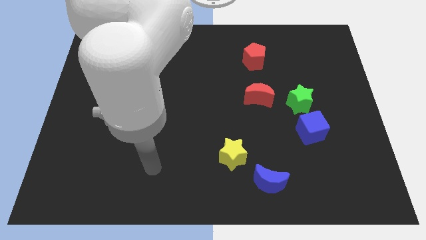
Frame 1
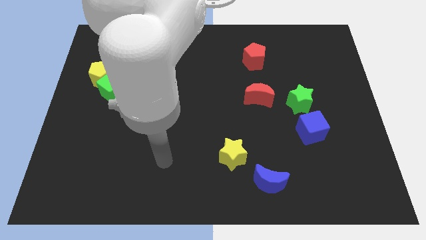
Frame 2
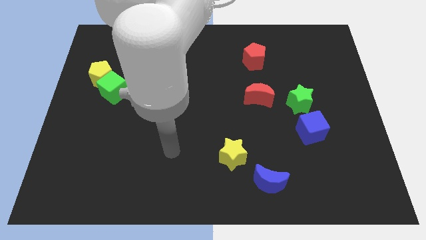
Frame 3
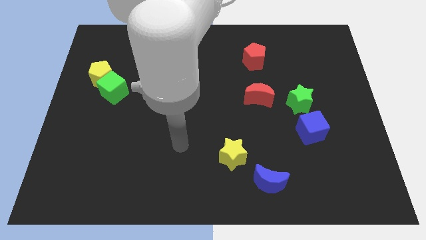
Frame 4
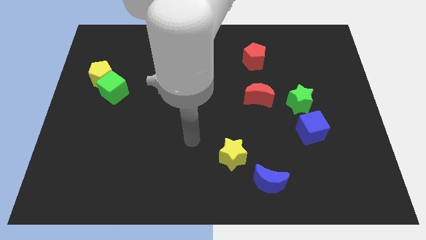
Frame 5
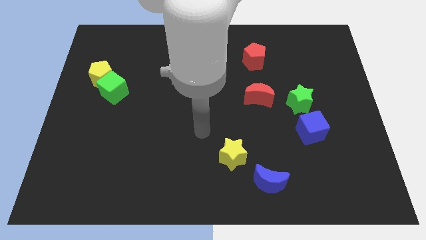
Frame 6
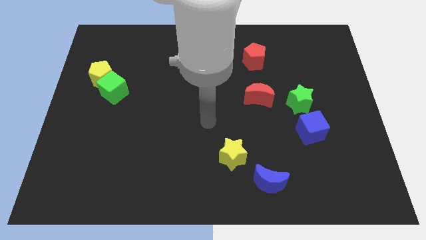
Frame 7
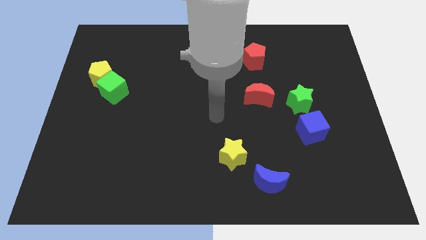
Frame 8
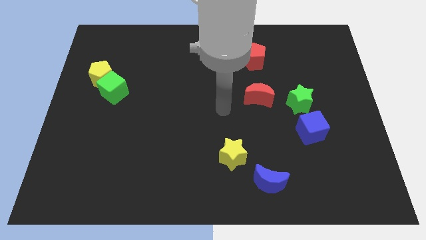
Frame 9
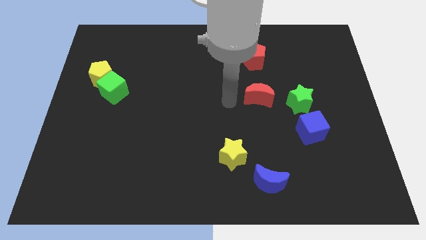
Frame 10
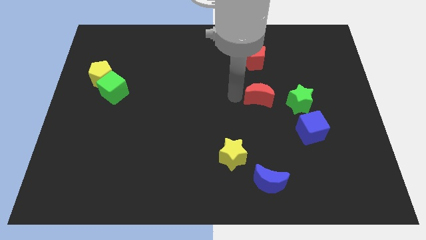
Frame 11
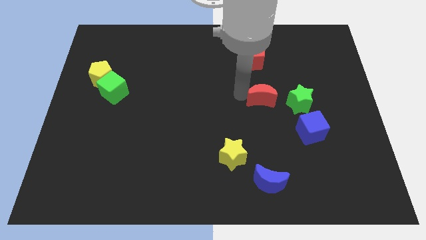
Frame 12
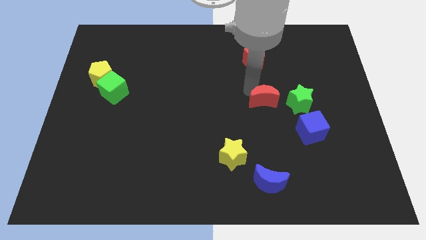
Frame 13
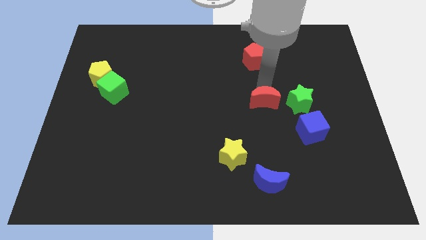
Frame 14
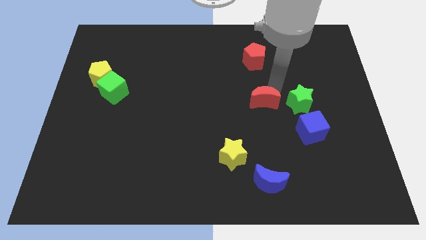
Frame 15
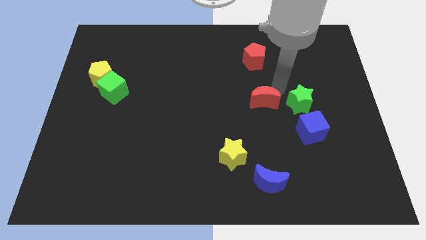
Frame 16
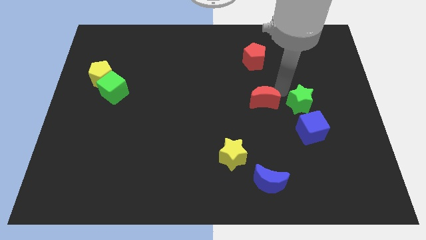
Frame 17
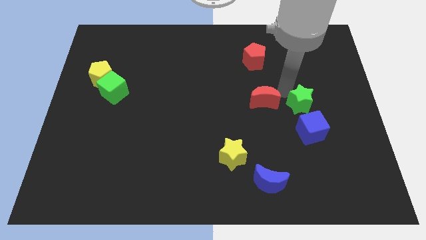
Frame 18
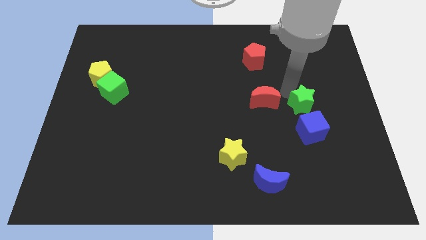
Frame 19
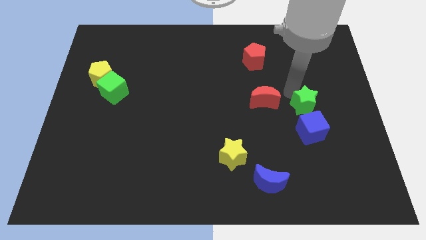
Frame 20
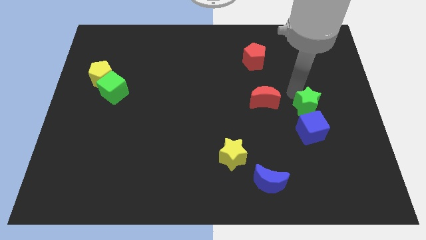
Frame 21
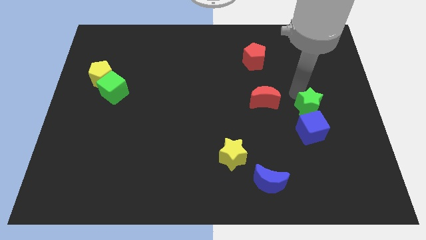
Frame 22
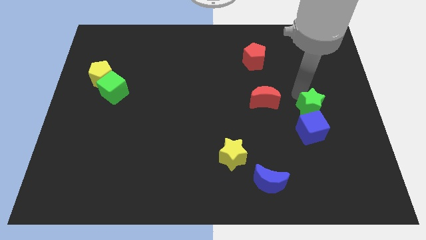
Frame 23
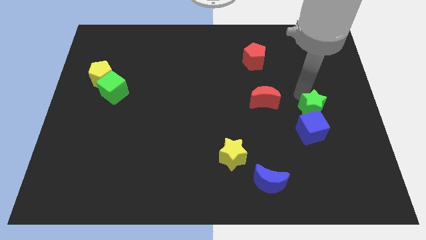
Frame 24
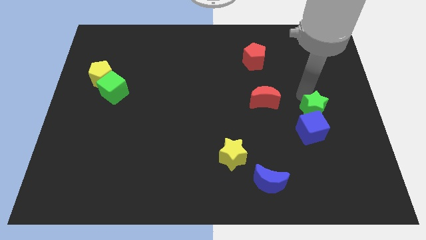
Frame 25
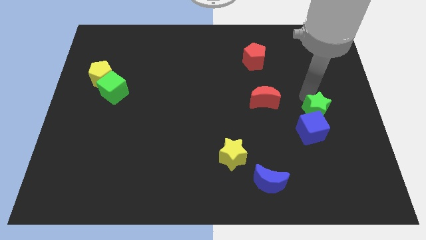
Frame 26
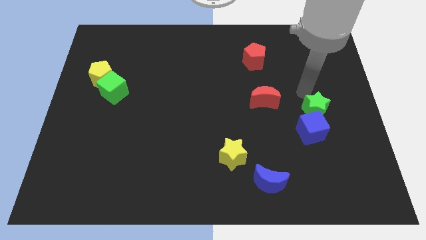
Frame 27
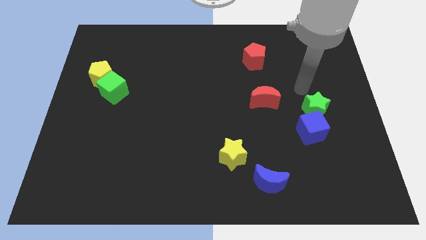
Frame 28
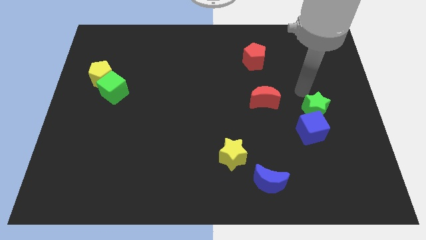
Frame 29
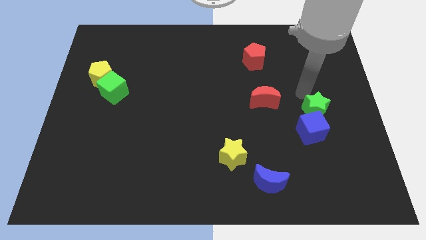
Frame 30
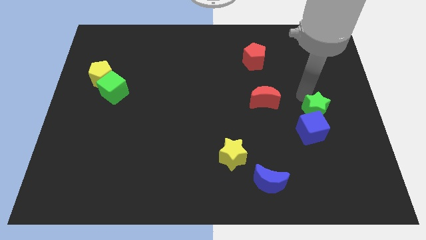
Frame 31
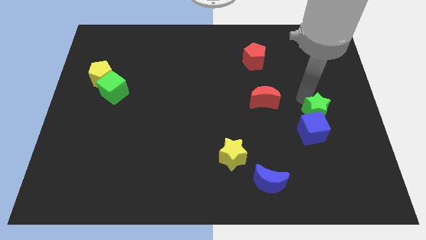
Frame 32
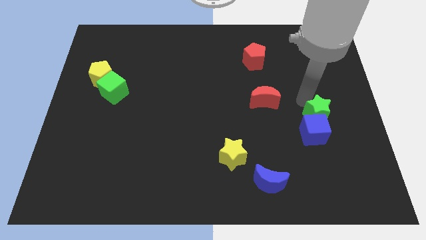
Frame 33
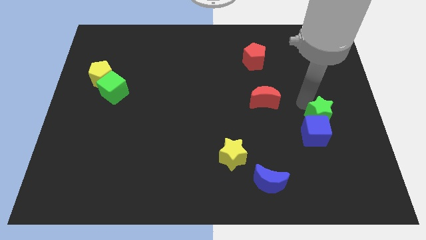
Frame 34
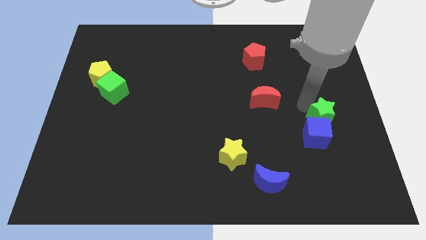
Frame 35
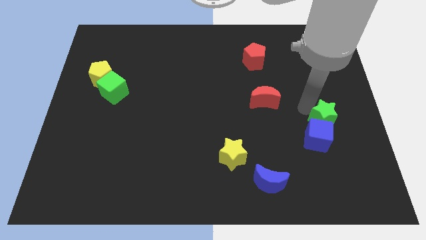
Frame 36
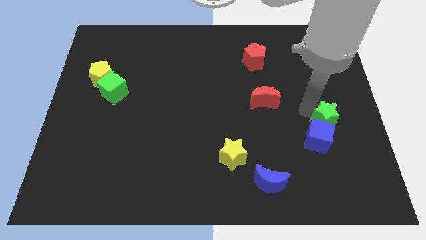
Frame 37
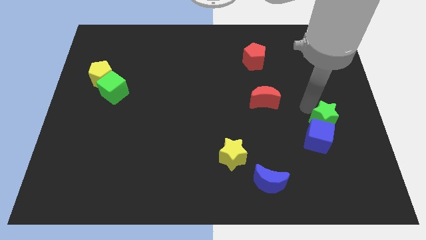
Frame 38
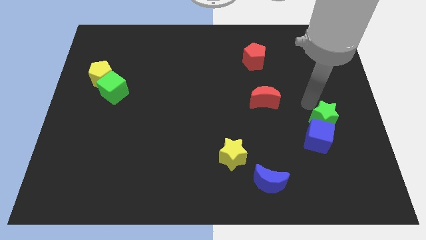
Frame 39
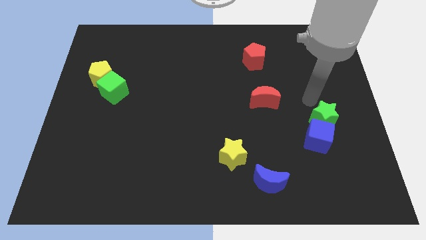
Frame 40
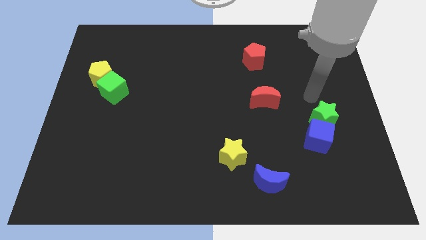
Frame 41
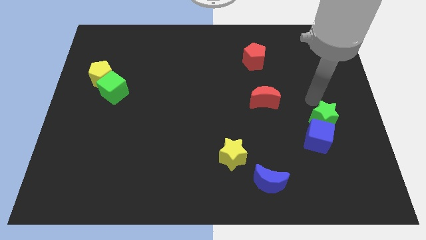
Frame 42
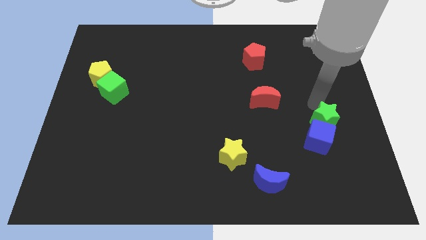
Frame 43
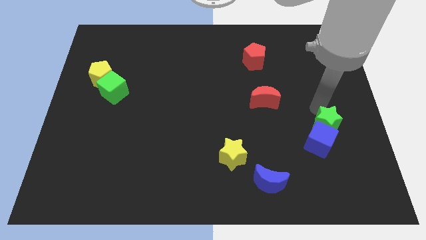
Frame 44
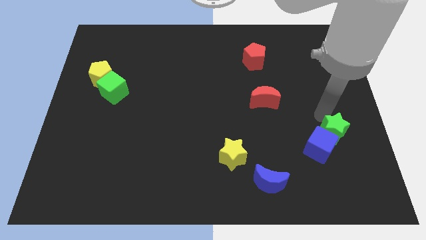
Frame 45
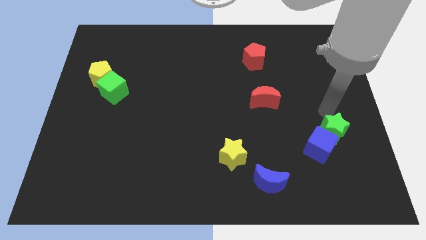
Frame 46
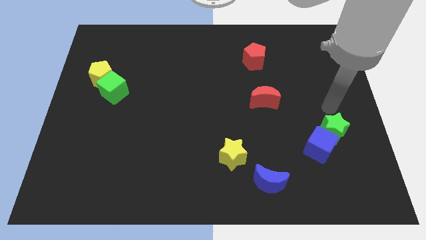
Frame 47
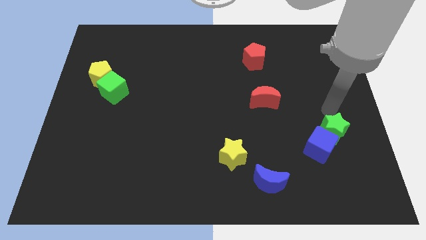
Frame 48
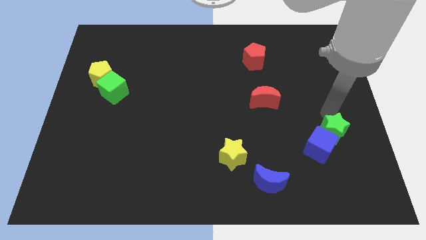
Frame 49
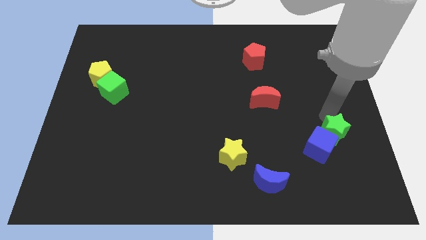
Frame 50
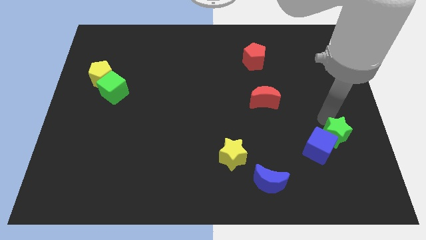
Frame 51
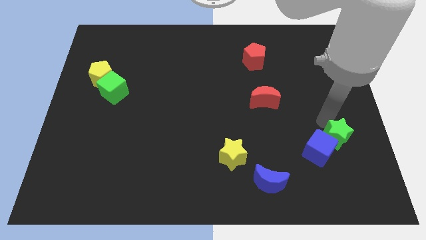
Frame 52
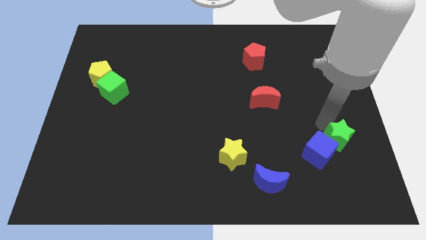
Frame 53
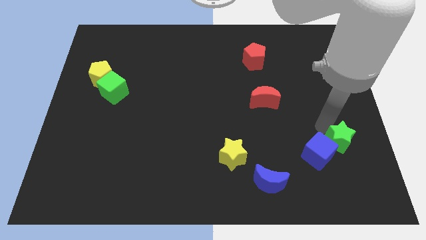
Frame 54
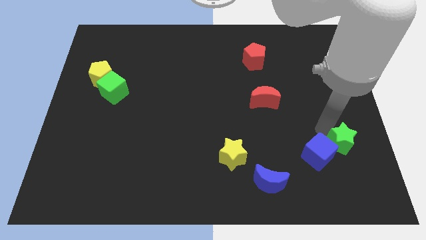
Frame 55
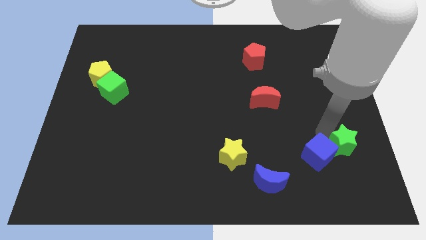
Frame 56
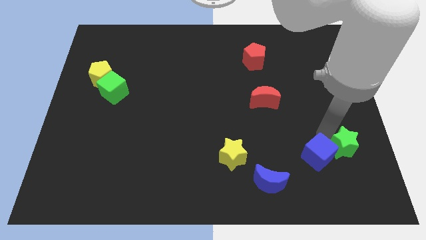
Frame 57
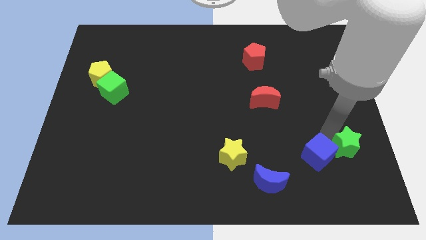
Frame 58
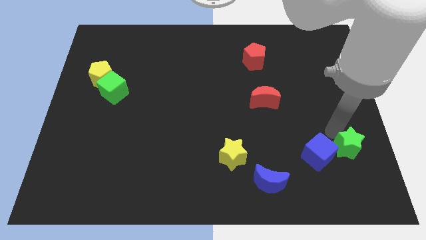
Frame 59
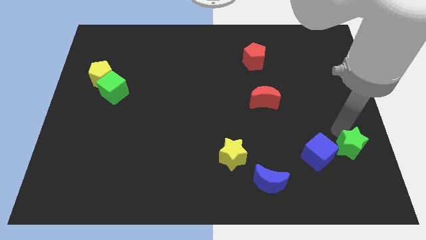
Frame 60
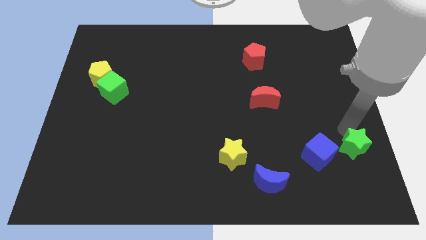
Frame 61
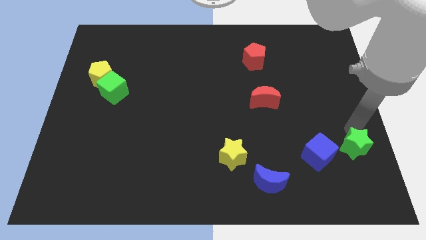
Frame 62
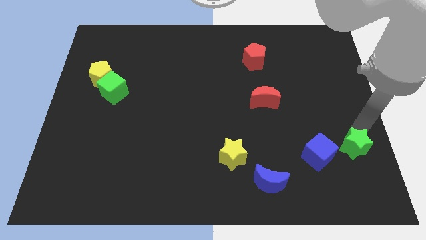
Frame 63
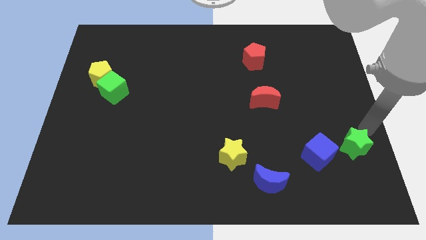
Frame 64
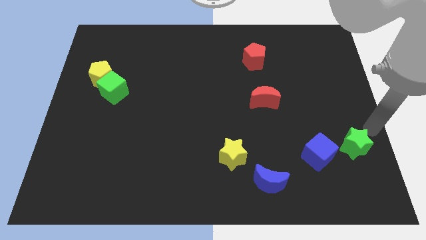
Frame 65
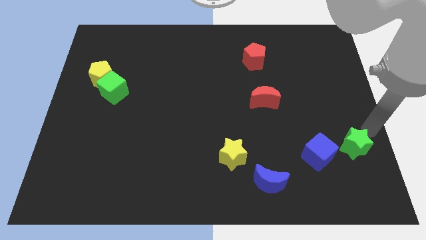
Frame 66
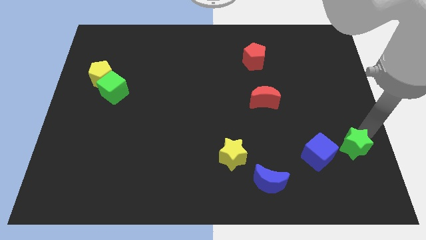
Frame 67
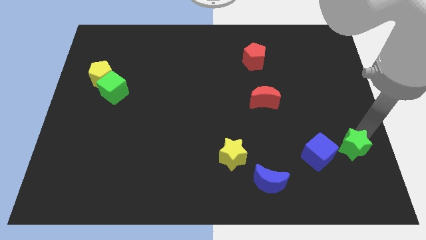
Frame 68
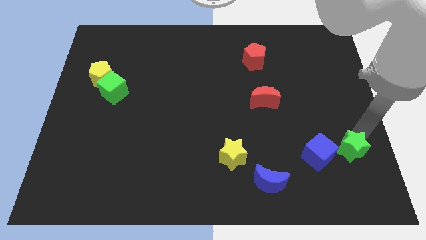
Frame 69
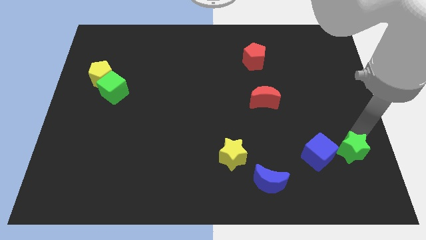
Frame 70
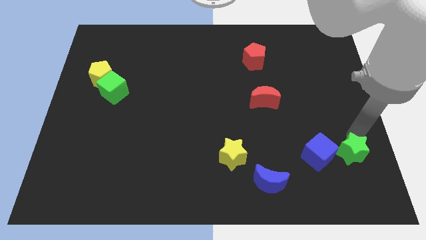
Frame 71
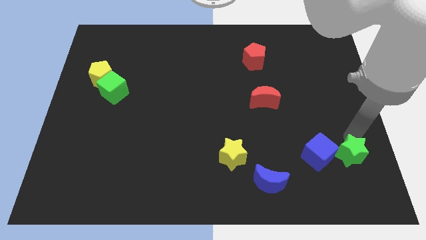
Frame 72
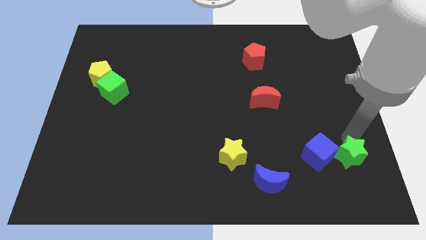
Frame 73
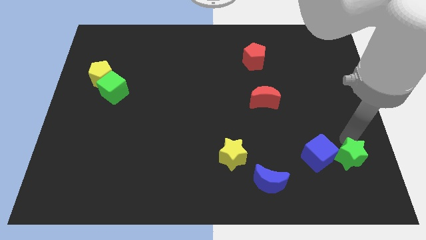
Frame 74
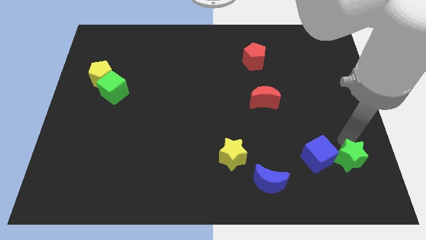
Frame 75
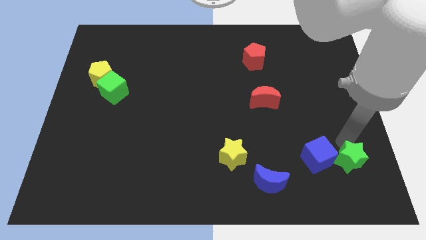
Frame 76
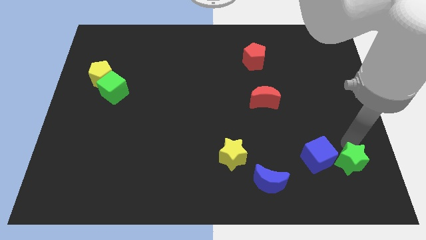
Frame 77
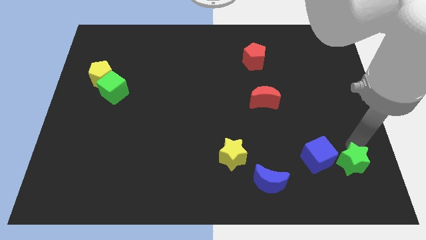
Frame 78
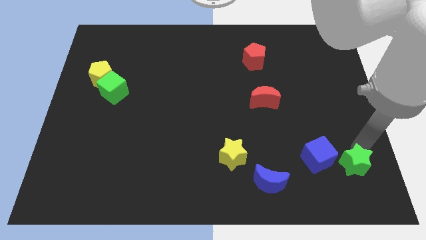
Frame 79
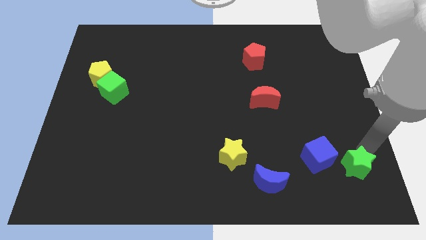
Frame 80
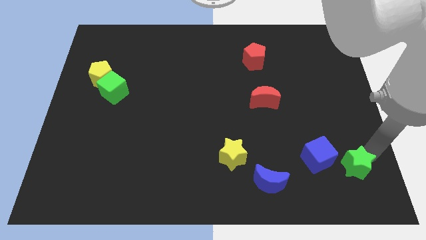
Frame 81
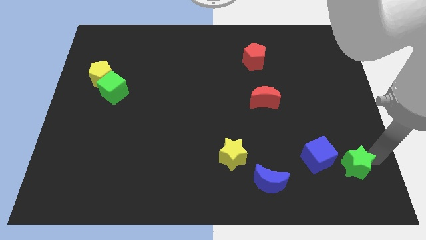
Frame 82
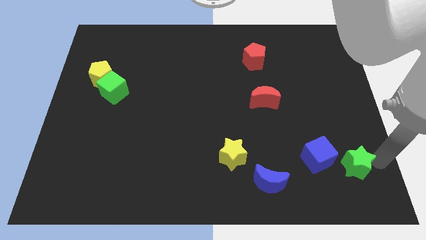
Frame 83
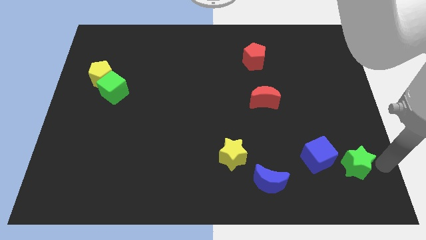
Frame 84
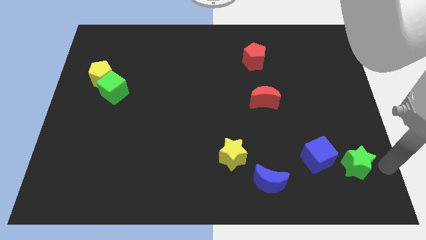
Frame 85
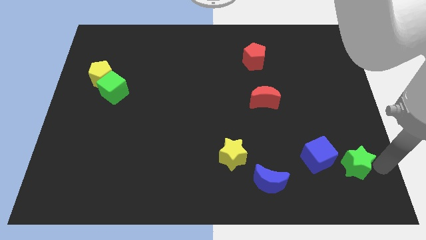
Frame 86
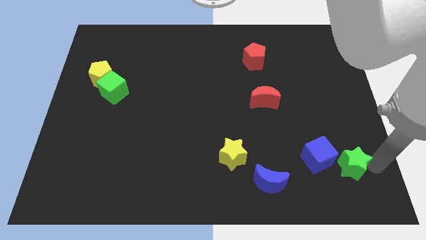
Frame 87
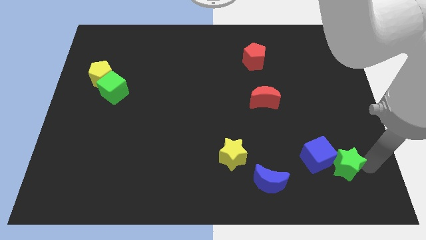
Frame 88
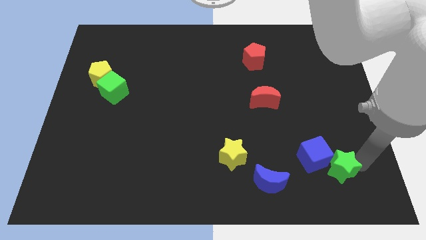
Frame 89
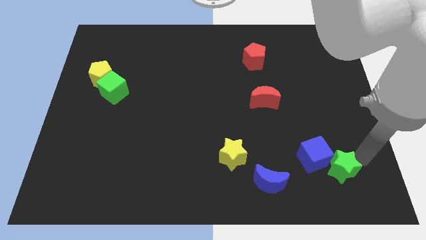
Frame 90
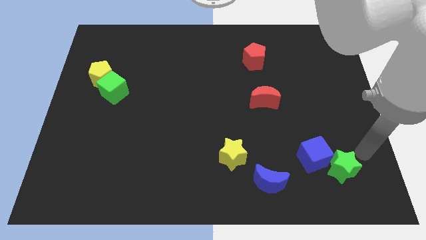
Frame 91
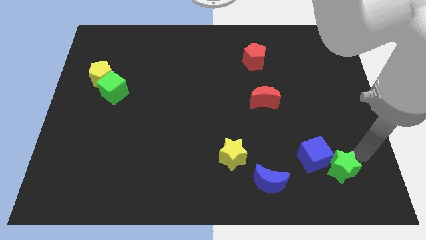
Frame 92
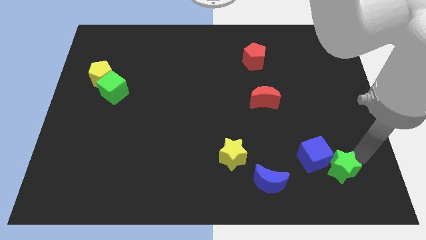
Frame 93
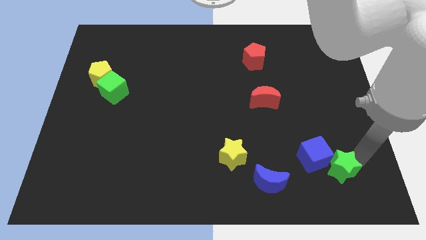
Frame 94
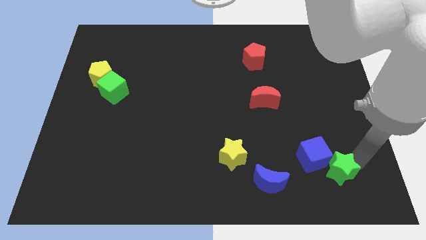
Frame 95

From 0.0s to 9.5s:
move the green star to the right side of the blue moon
